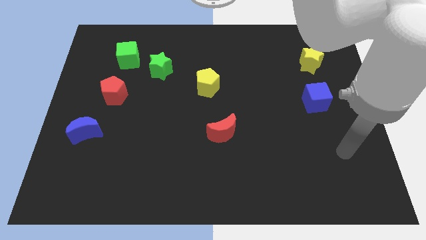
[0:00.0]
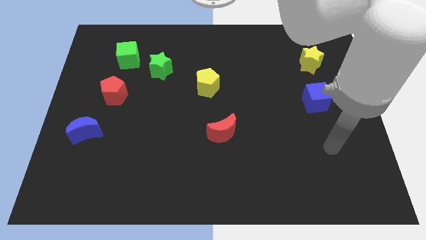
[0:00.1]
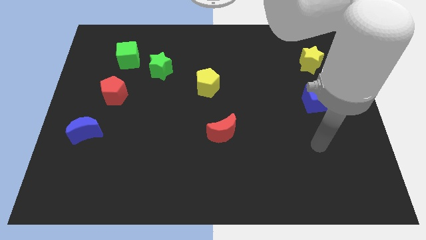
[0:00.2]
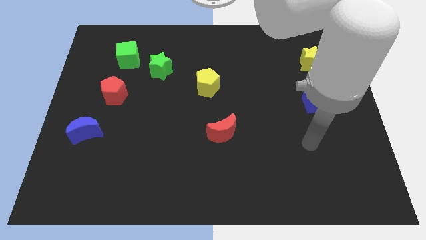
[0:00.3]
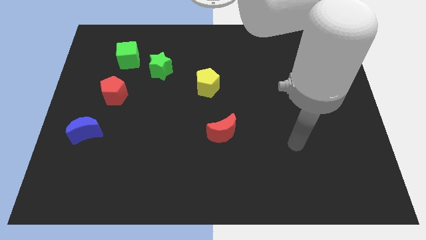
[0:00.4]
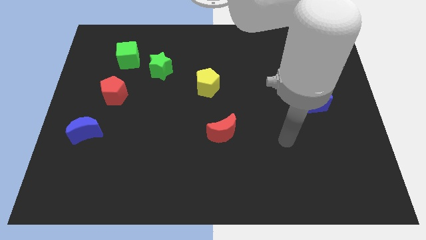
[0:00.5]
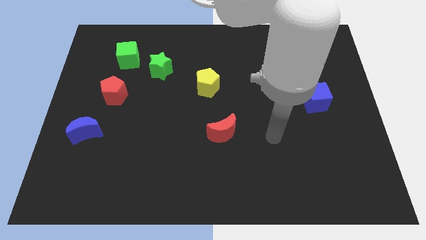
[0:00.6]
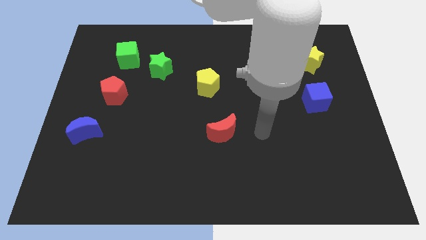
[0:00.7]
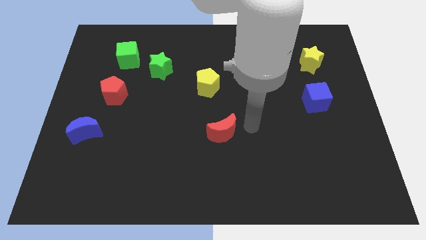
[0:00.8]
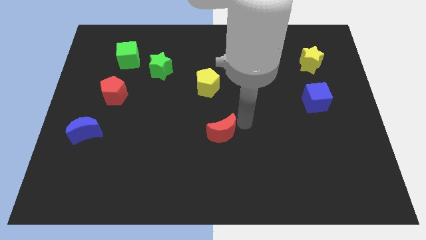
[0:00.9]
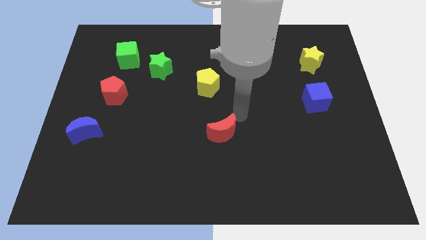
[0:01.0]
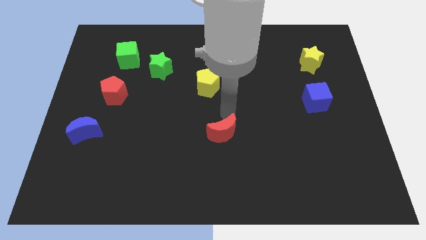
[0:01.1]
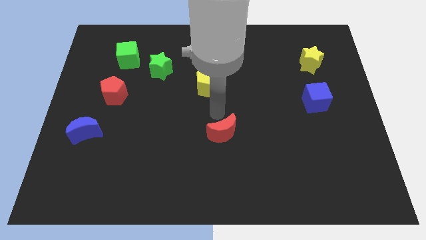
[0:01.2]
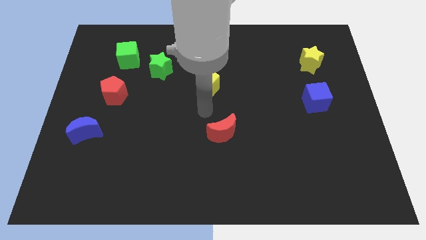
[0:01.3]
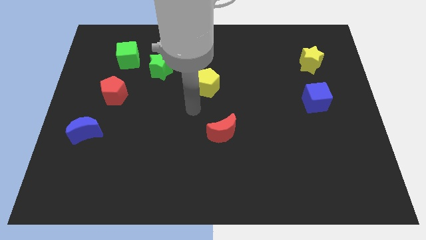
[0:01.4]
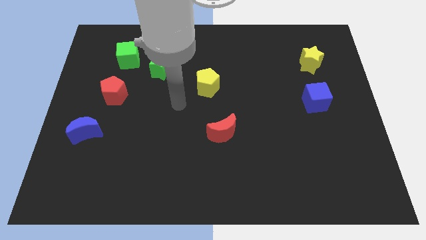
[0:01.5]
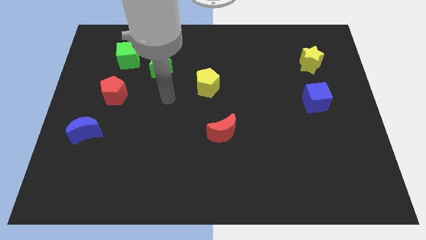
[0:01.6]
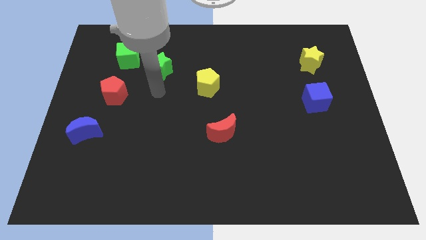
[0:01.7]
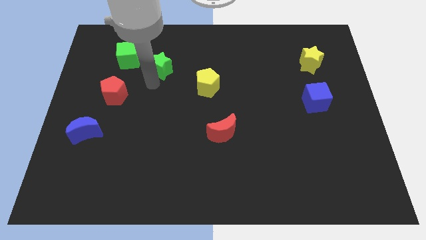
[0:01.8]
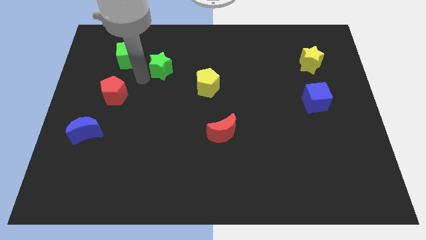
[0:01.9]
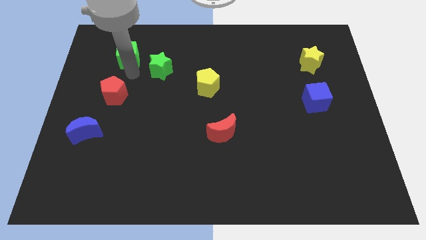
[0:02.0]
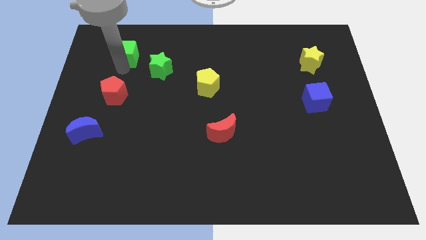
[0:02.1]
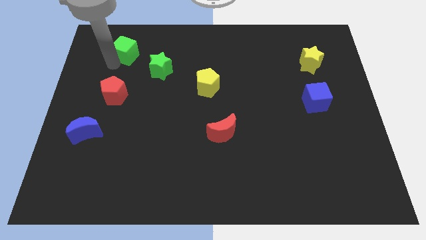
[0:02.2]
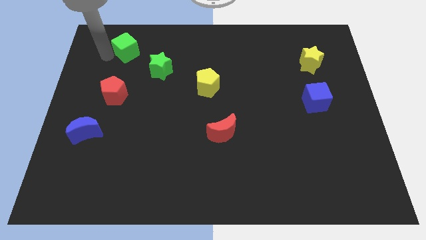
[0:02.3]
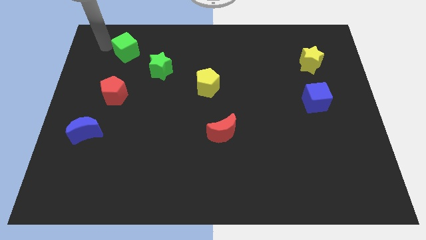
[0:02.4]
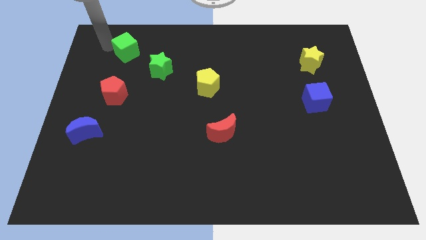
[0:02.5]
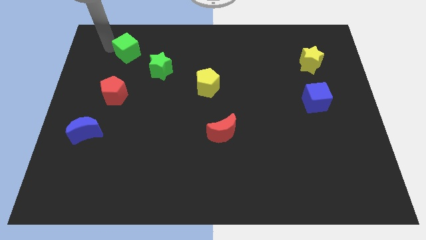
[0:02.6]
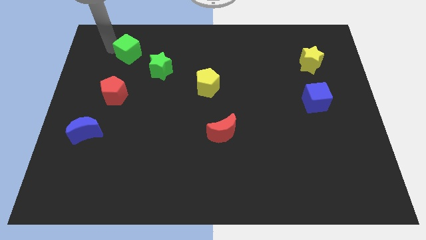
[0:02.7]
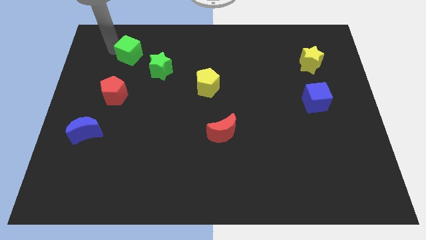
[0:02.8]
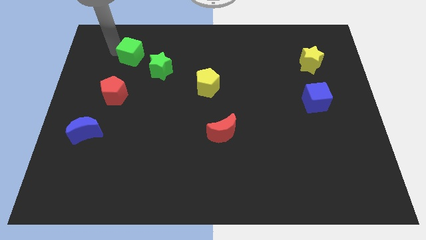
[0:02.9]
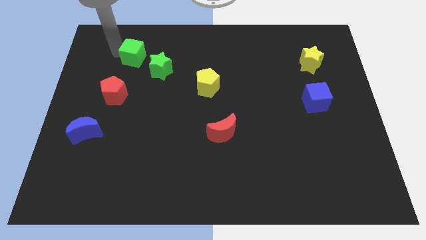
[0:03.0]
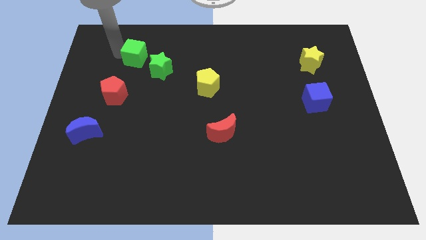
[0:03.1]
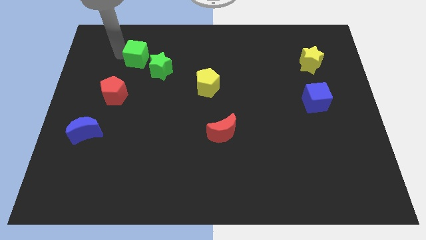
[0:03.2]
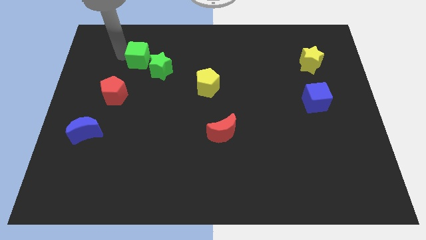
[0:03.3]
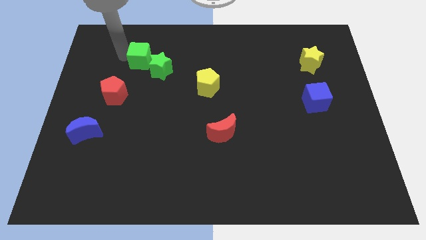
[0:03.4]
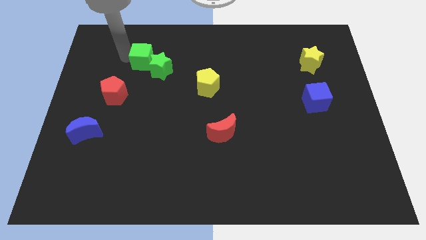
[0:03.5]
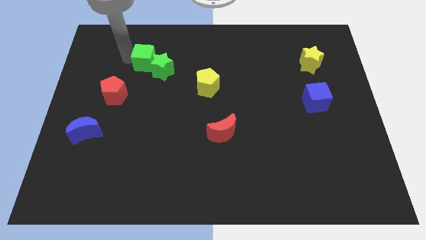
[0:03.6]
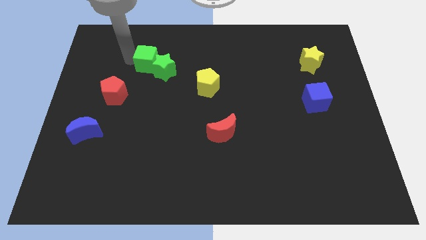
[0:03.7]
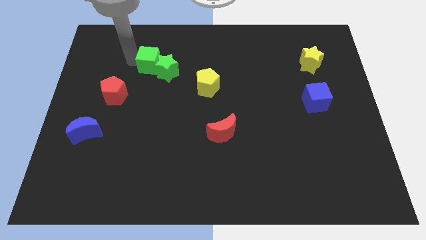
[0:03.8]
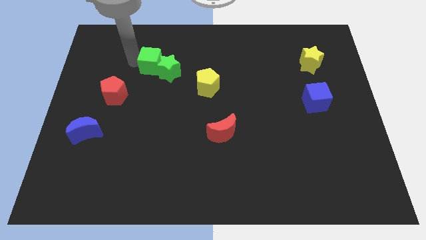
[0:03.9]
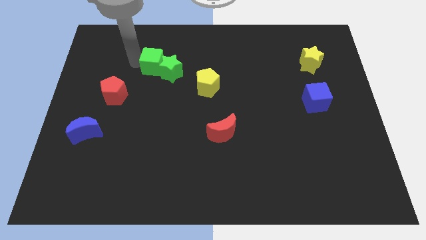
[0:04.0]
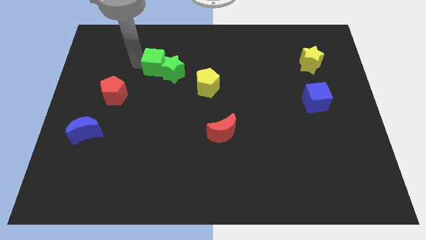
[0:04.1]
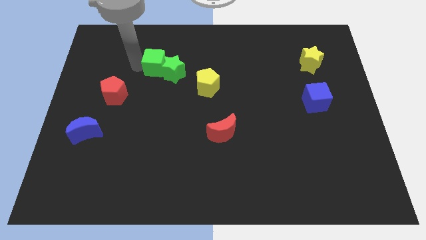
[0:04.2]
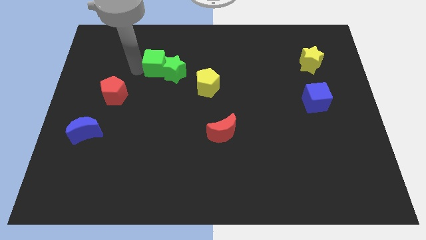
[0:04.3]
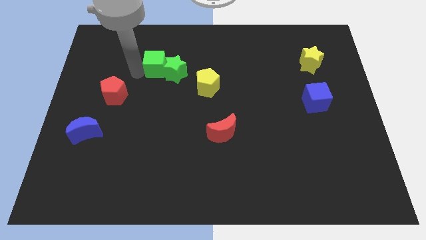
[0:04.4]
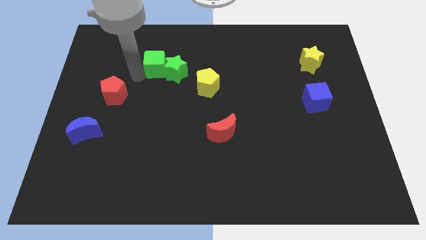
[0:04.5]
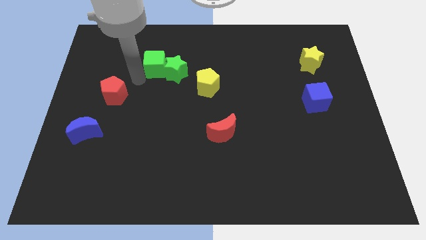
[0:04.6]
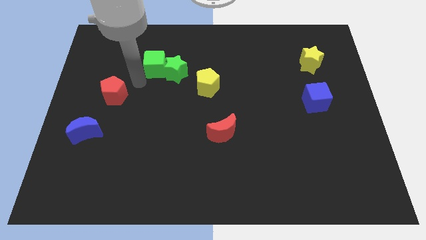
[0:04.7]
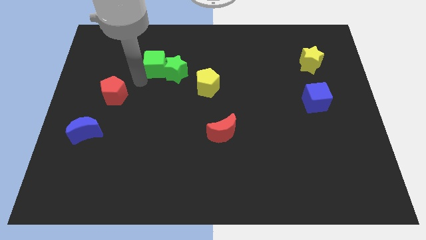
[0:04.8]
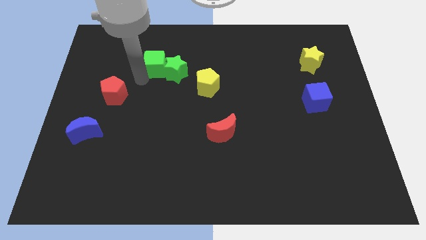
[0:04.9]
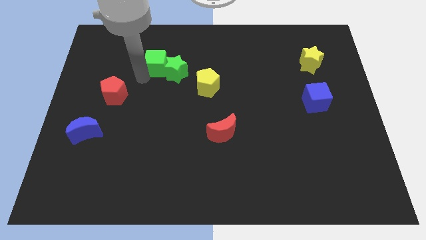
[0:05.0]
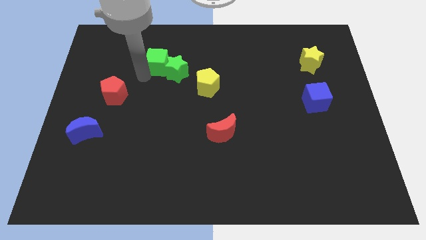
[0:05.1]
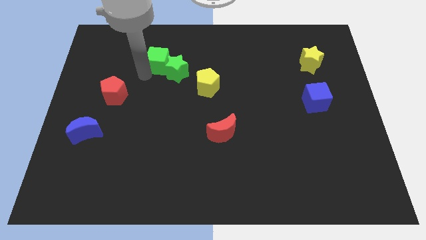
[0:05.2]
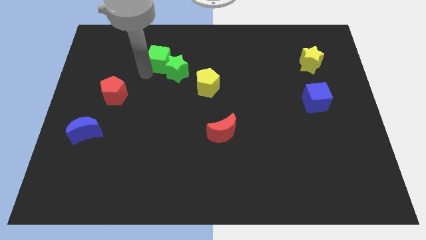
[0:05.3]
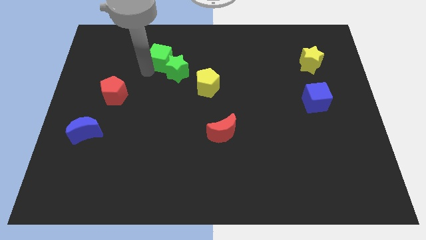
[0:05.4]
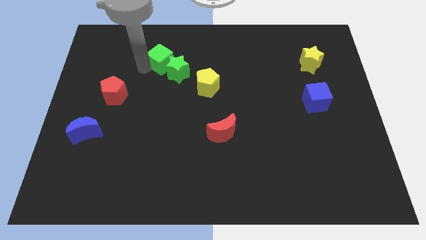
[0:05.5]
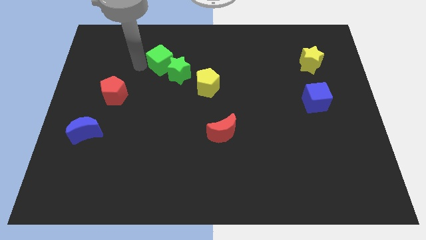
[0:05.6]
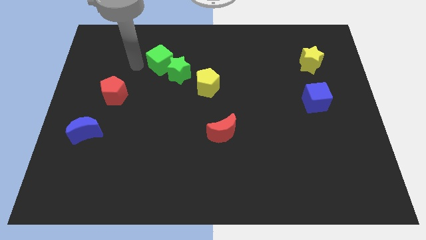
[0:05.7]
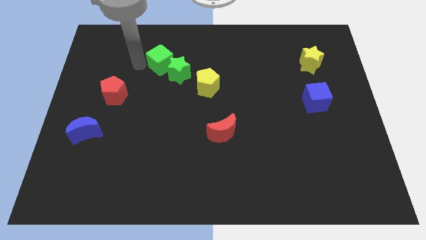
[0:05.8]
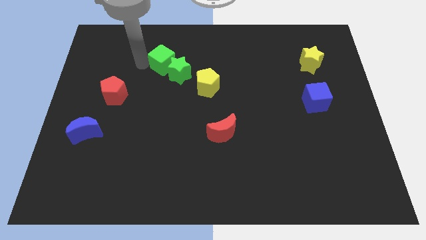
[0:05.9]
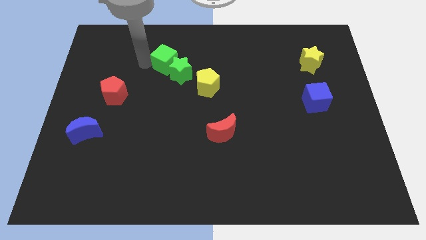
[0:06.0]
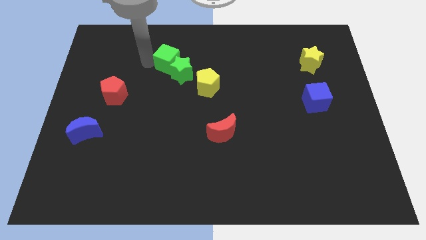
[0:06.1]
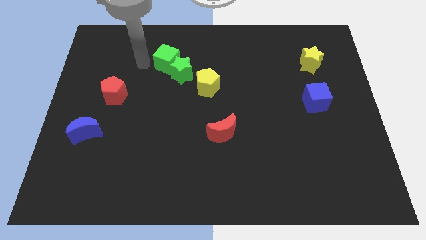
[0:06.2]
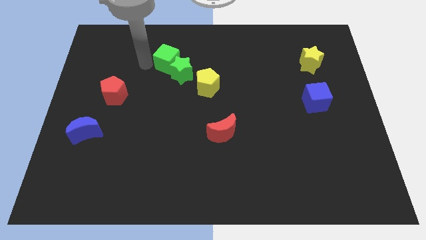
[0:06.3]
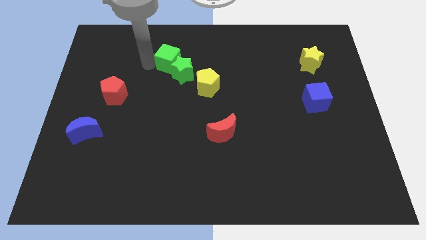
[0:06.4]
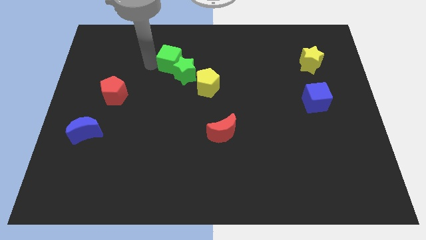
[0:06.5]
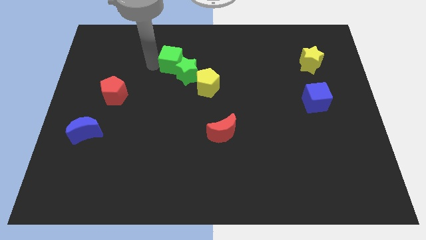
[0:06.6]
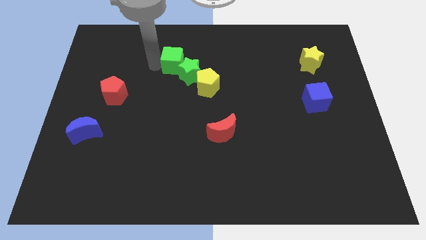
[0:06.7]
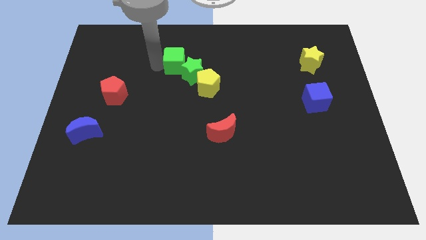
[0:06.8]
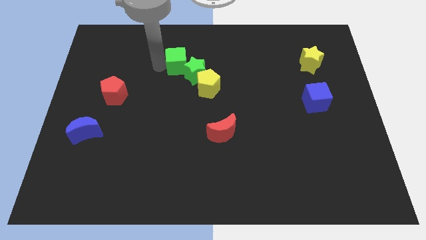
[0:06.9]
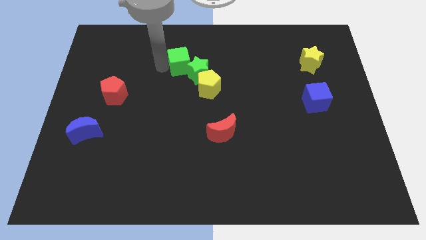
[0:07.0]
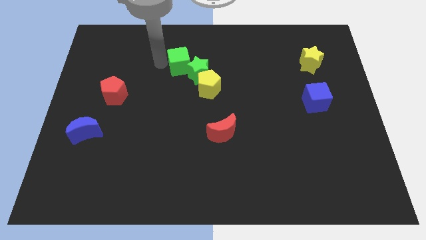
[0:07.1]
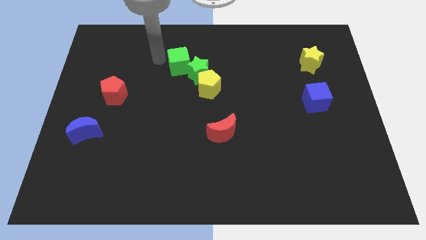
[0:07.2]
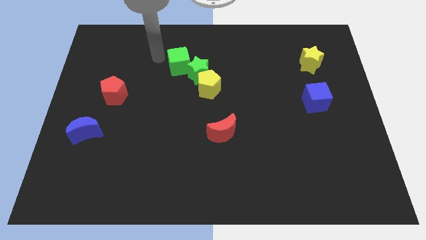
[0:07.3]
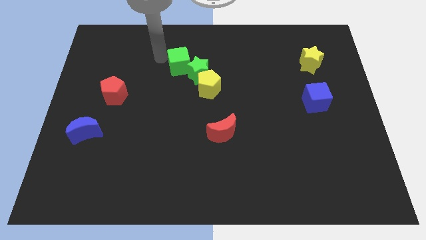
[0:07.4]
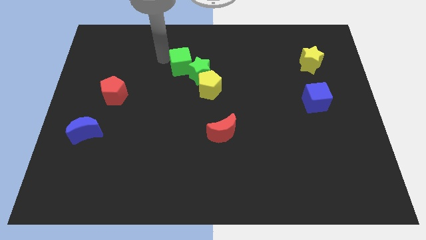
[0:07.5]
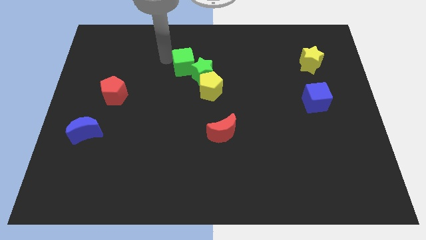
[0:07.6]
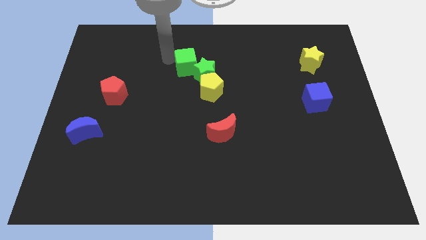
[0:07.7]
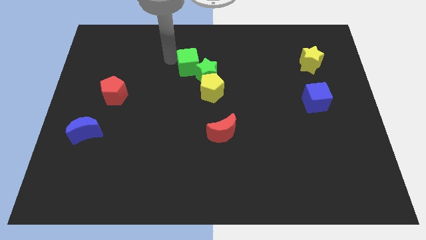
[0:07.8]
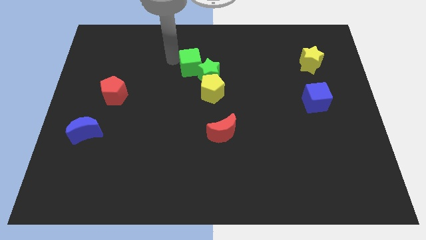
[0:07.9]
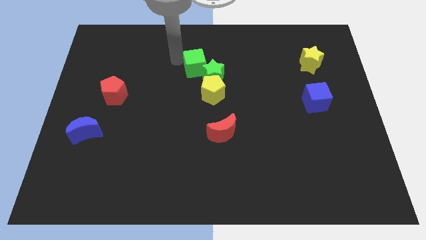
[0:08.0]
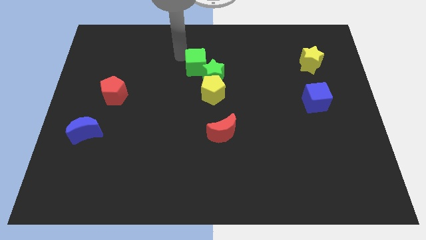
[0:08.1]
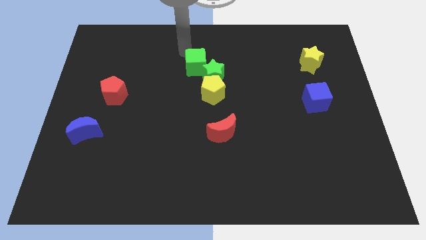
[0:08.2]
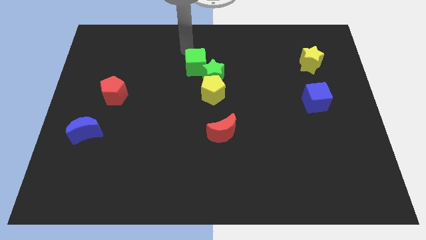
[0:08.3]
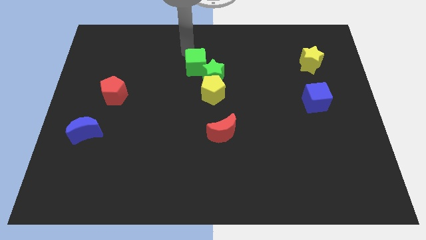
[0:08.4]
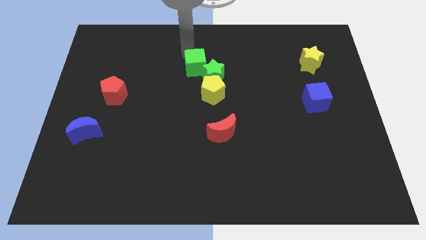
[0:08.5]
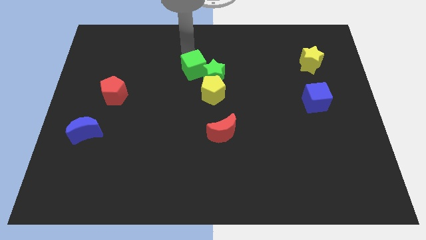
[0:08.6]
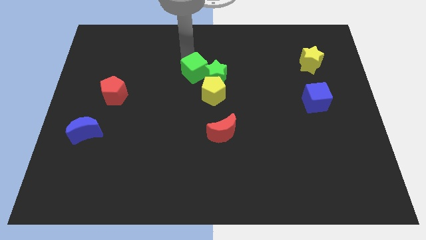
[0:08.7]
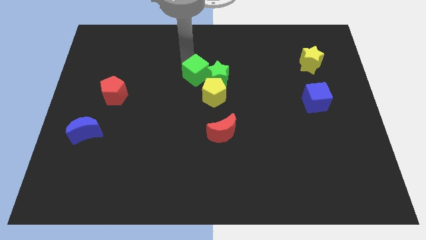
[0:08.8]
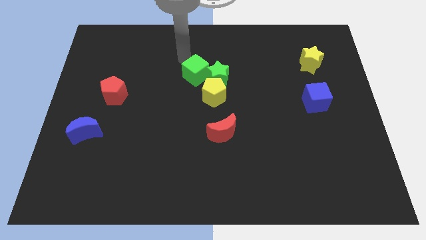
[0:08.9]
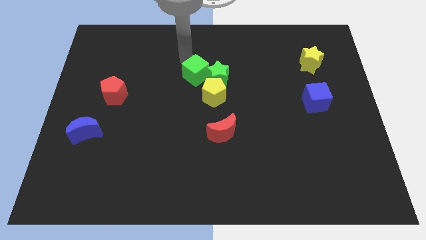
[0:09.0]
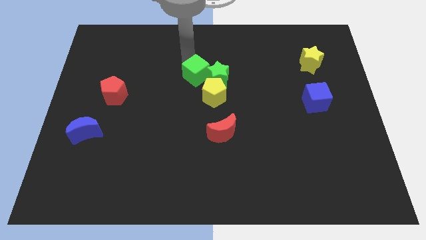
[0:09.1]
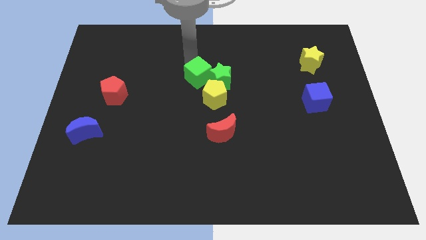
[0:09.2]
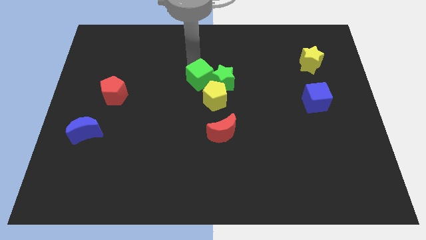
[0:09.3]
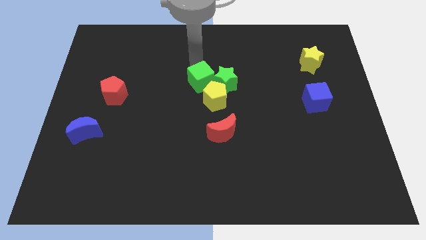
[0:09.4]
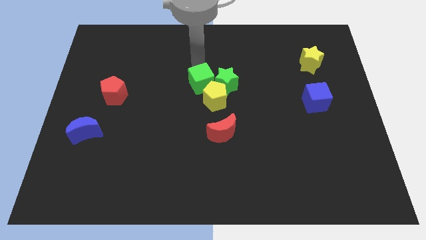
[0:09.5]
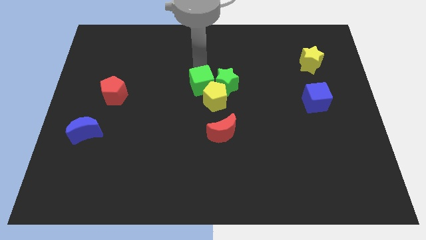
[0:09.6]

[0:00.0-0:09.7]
move the green cube to the yellow pentagon
